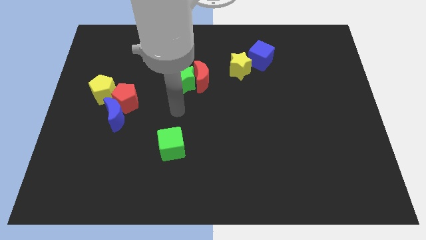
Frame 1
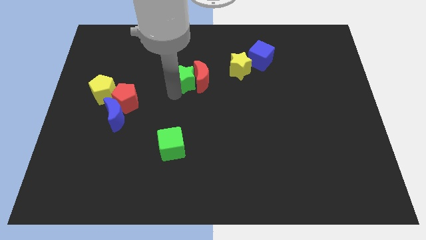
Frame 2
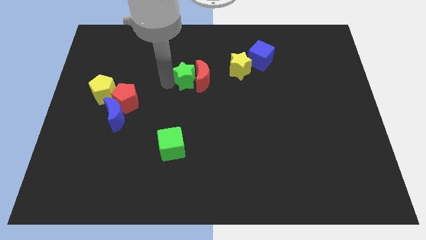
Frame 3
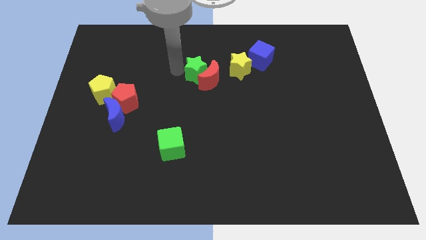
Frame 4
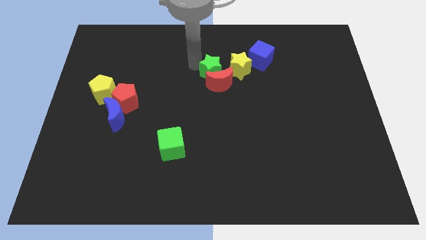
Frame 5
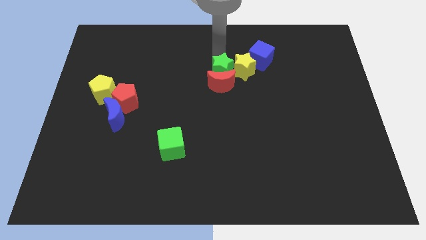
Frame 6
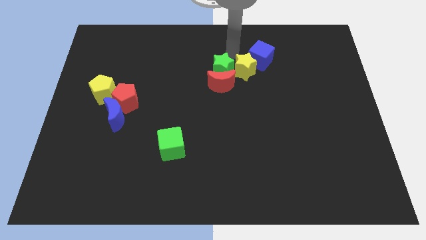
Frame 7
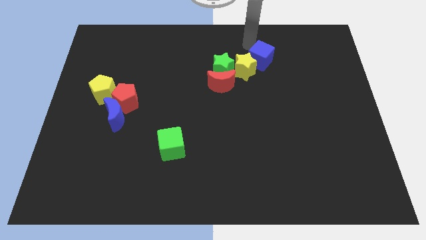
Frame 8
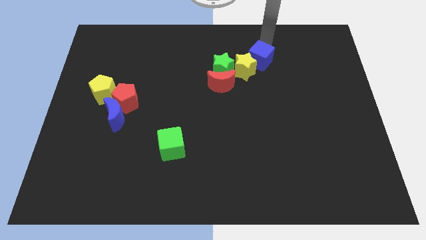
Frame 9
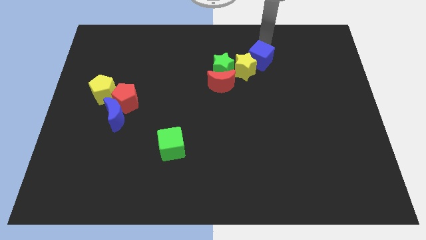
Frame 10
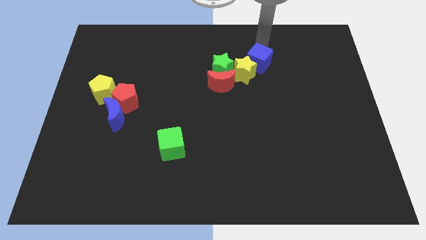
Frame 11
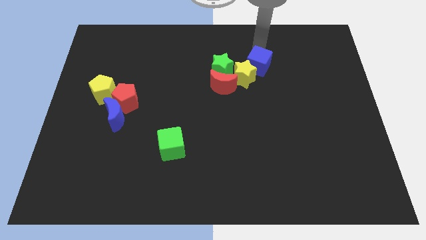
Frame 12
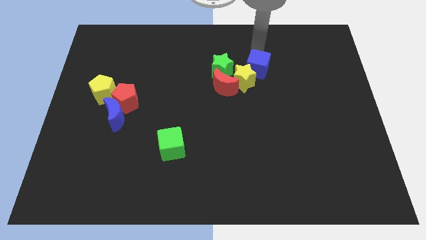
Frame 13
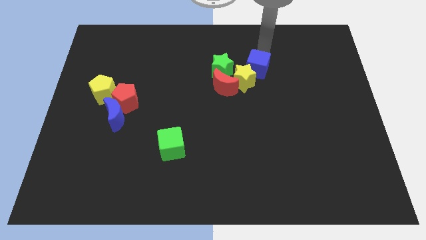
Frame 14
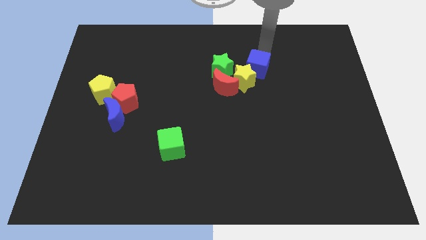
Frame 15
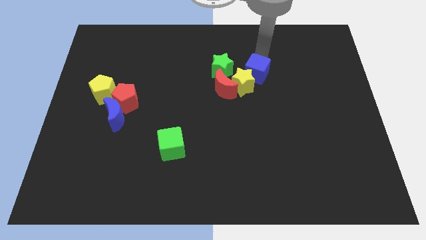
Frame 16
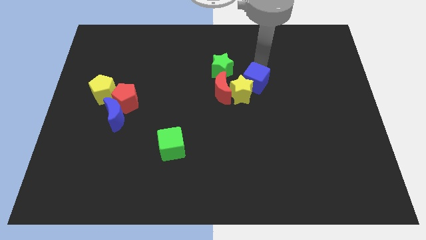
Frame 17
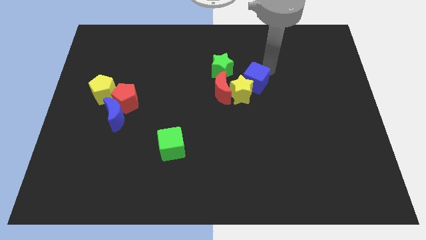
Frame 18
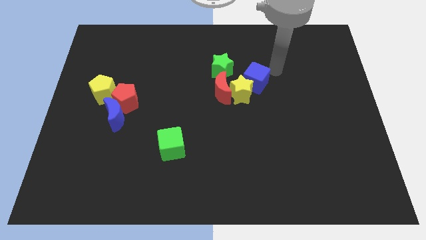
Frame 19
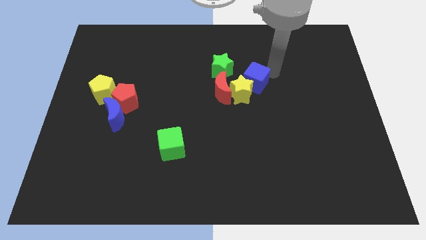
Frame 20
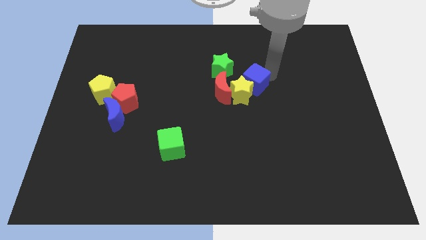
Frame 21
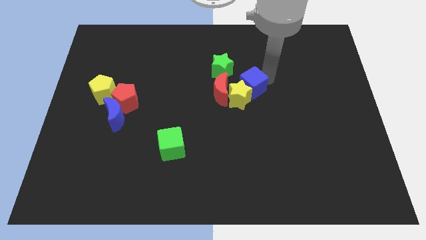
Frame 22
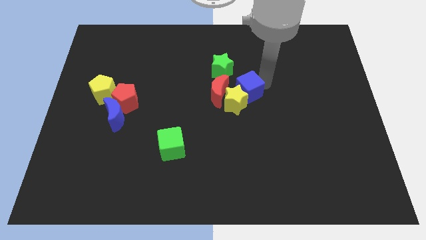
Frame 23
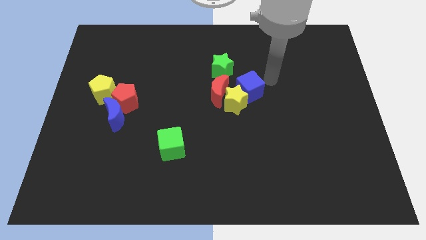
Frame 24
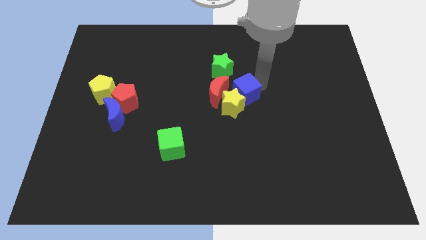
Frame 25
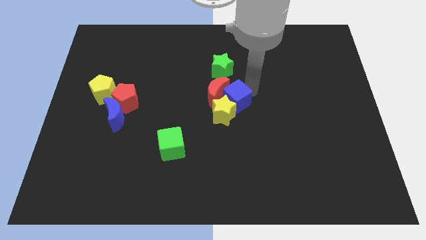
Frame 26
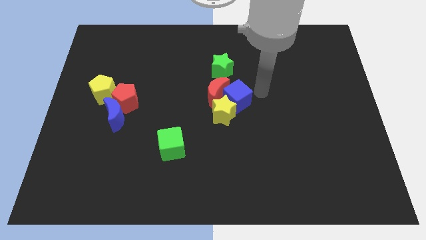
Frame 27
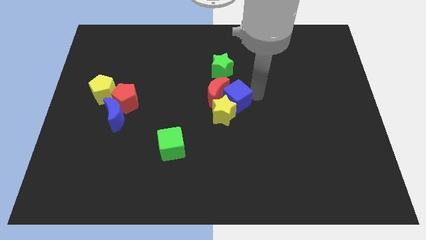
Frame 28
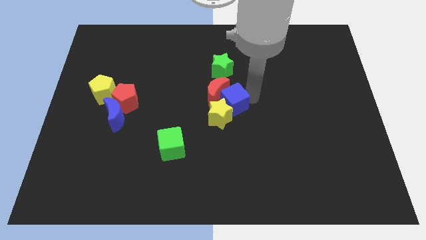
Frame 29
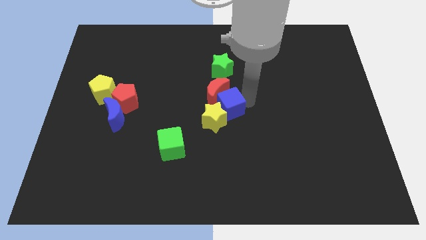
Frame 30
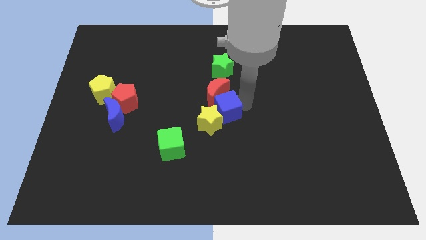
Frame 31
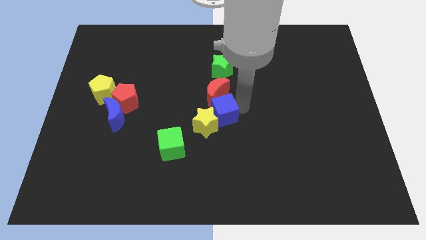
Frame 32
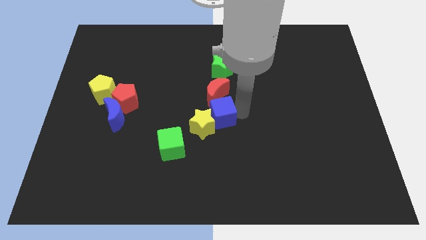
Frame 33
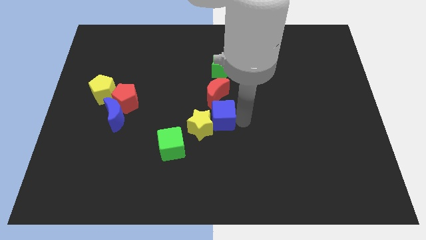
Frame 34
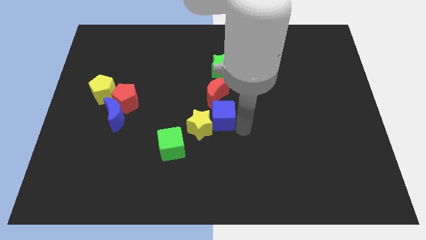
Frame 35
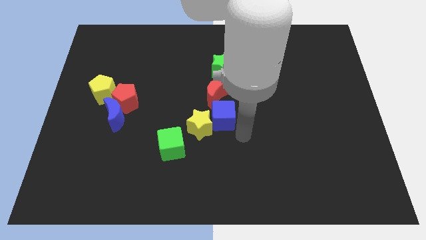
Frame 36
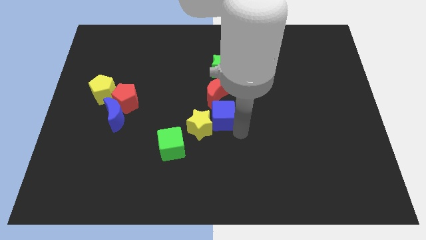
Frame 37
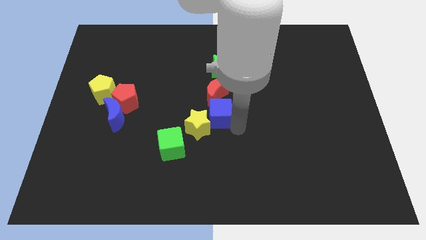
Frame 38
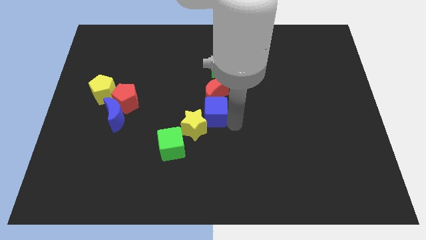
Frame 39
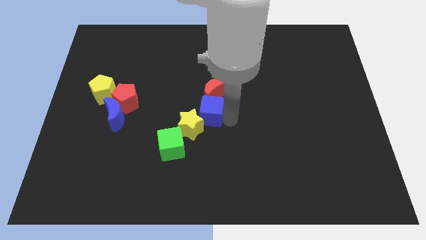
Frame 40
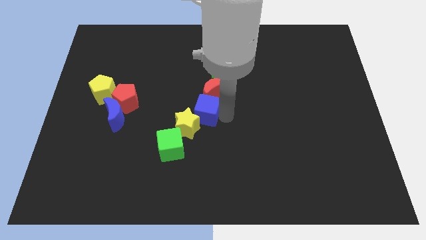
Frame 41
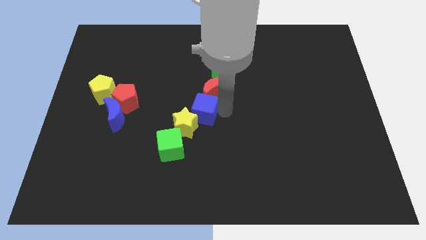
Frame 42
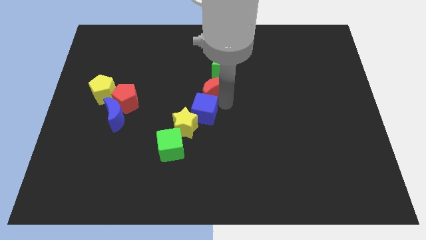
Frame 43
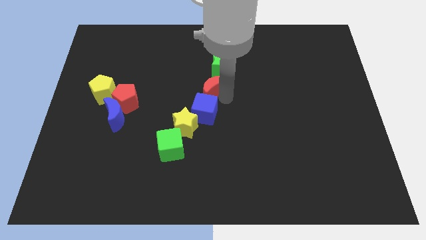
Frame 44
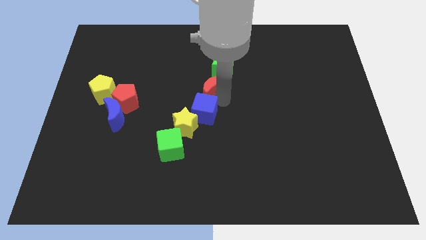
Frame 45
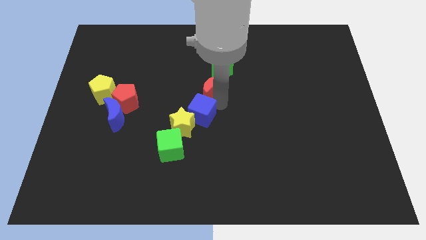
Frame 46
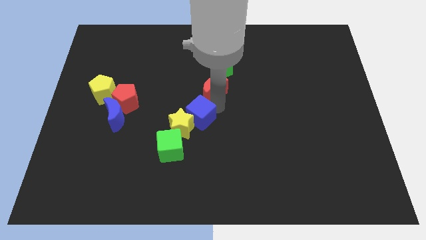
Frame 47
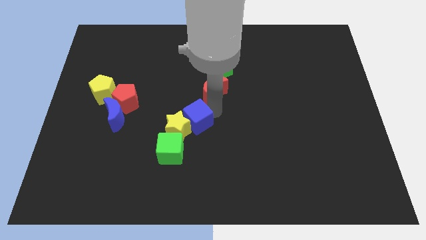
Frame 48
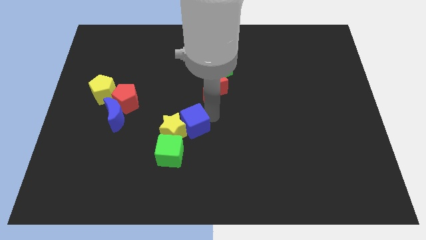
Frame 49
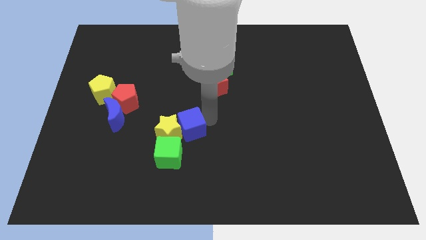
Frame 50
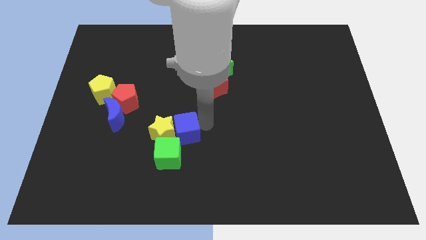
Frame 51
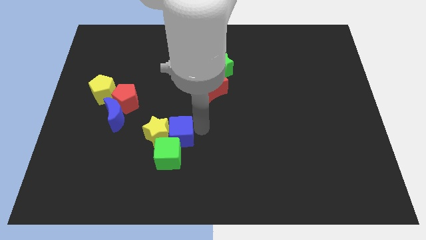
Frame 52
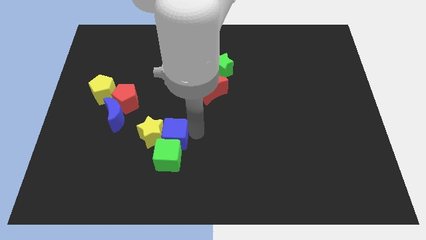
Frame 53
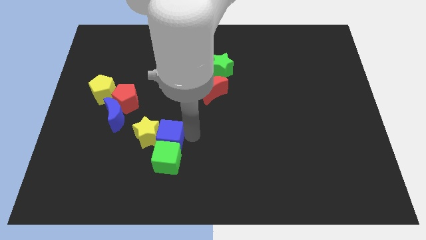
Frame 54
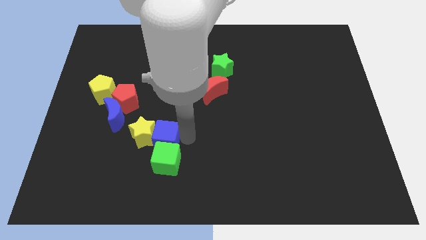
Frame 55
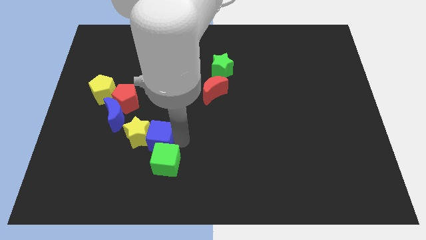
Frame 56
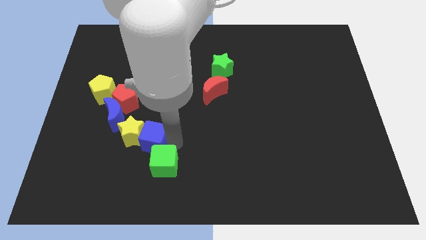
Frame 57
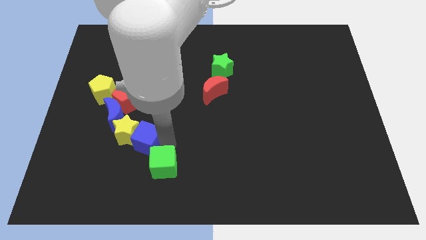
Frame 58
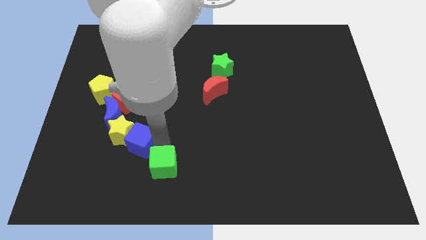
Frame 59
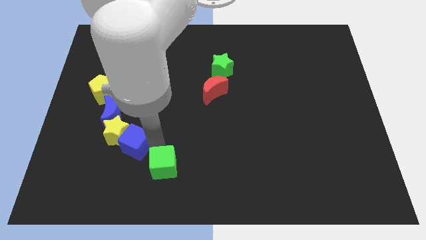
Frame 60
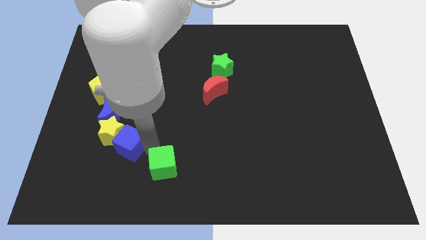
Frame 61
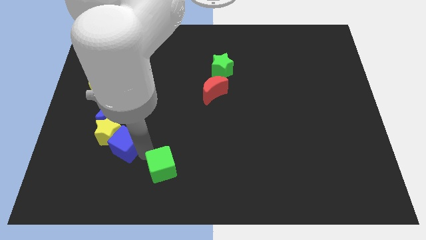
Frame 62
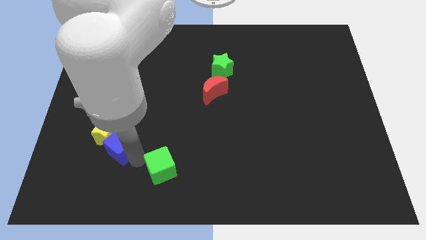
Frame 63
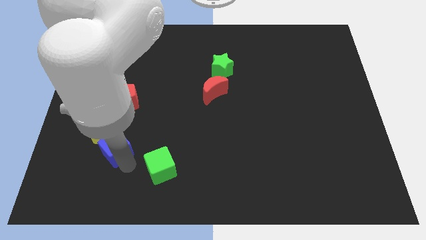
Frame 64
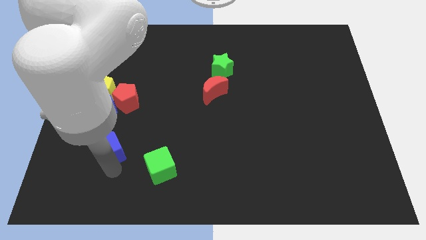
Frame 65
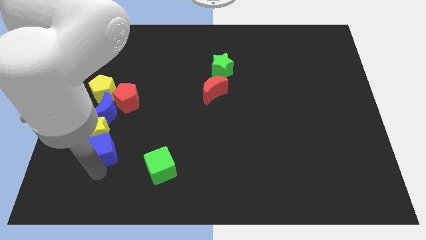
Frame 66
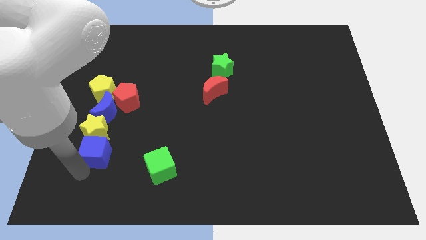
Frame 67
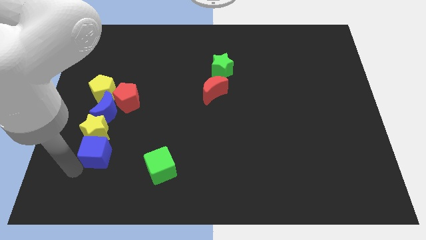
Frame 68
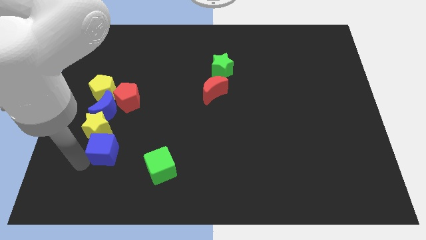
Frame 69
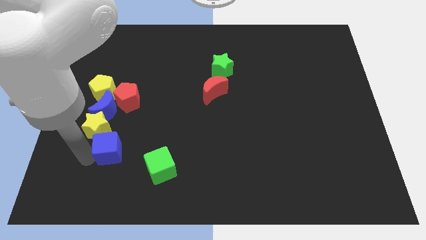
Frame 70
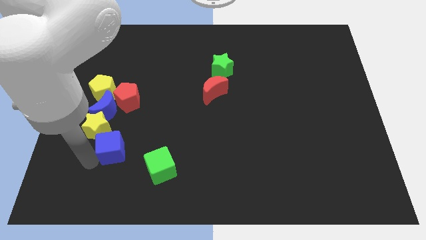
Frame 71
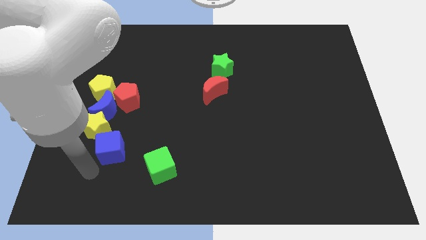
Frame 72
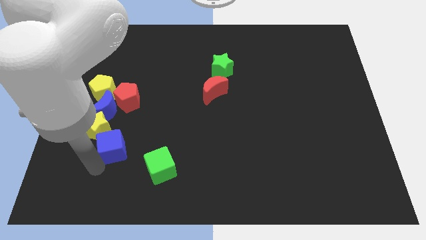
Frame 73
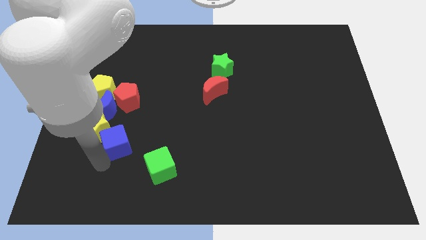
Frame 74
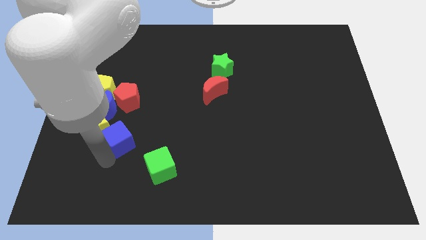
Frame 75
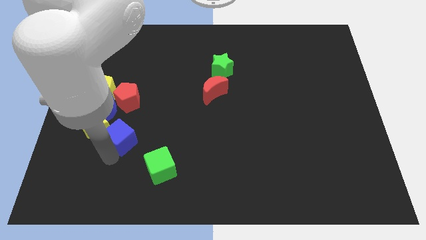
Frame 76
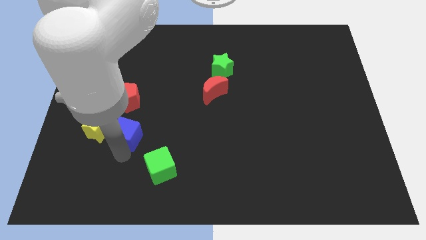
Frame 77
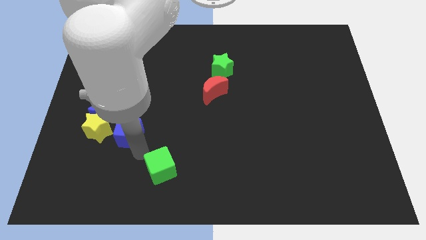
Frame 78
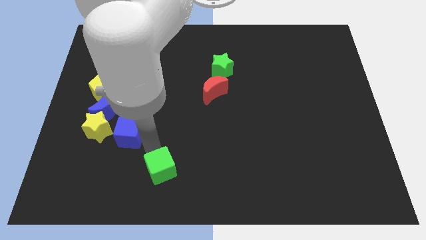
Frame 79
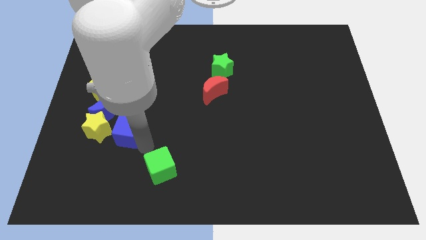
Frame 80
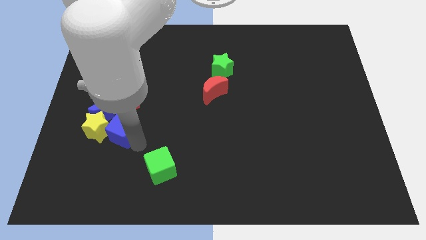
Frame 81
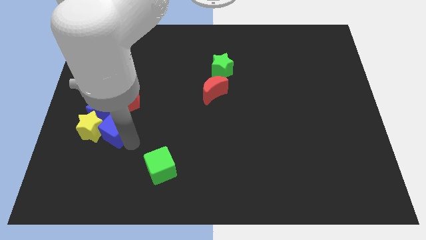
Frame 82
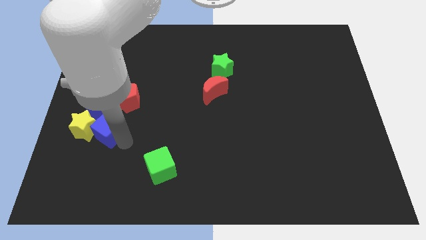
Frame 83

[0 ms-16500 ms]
move the blue cube diagonally down and to the left of the red pentagon
